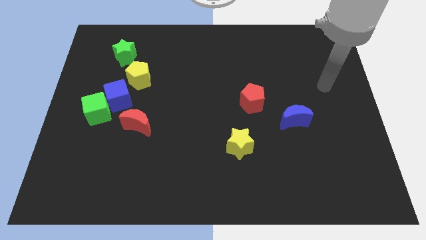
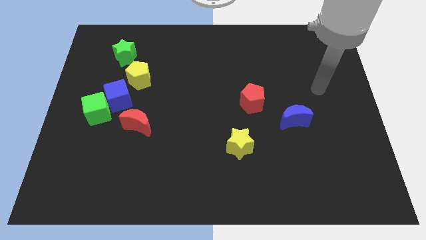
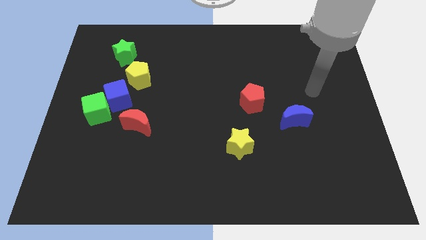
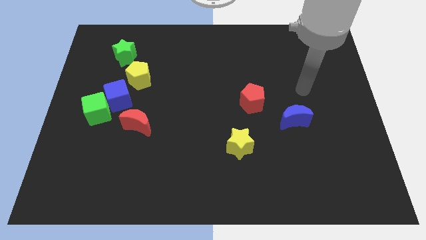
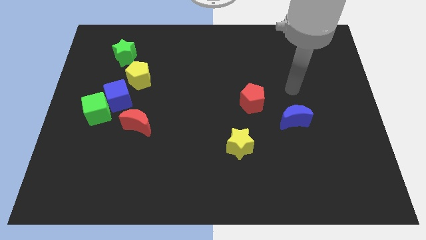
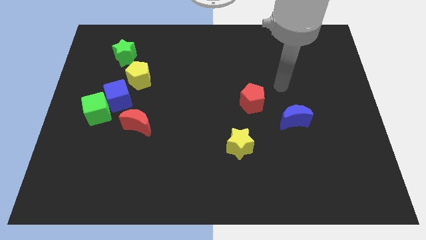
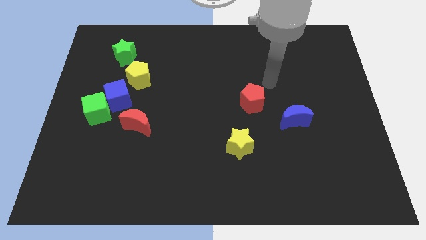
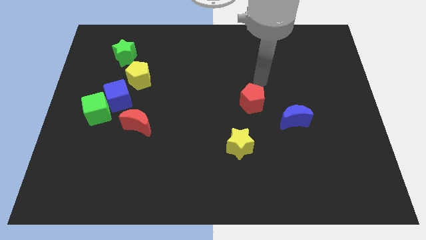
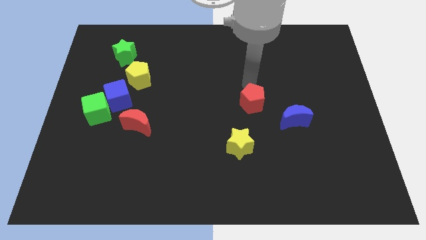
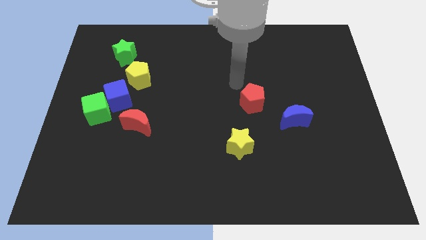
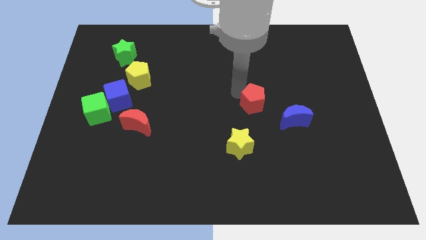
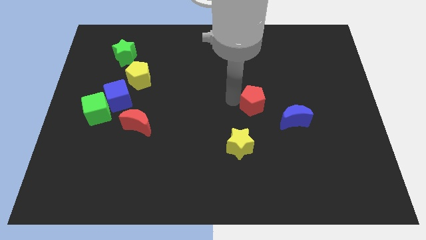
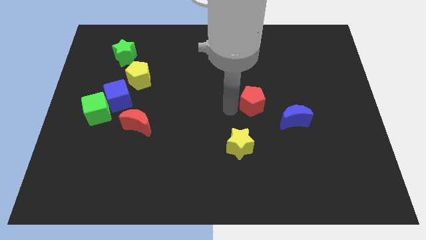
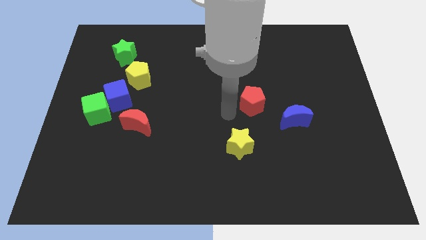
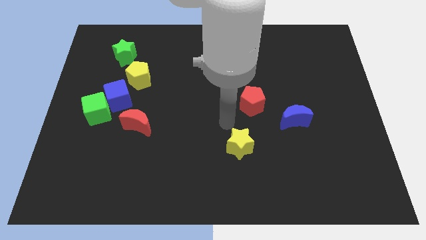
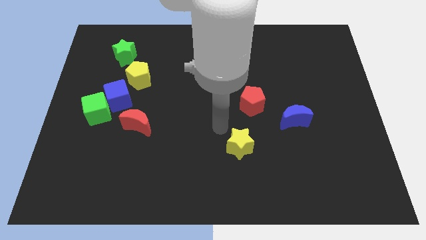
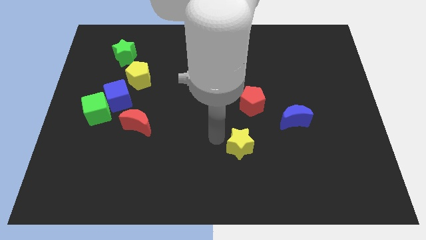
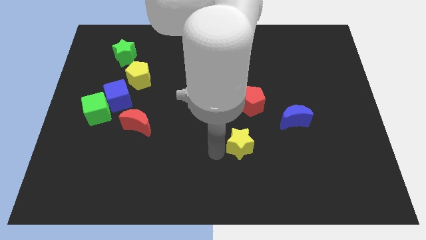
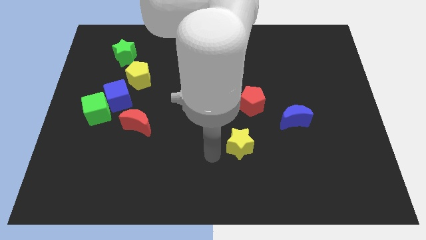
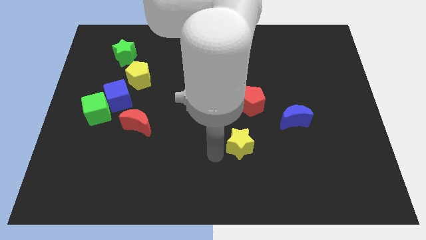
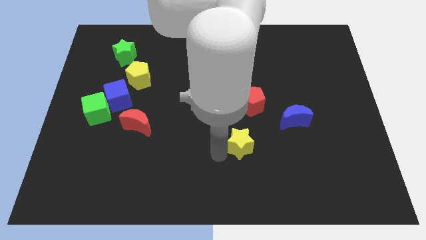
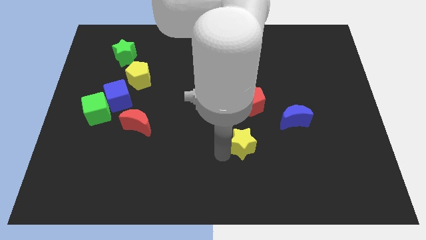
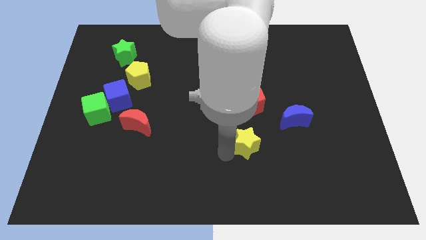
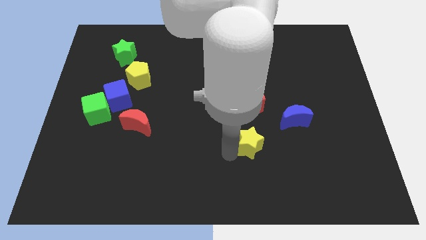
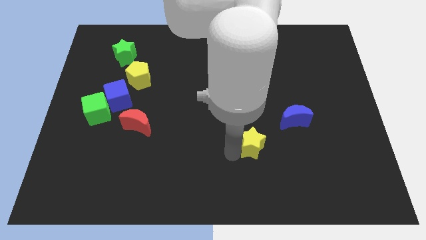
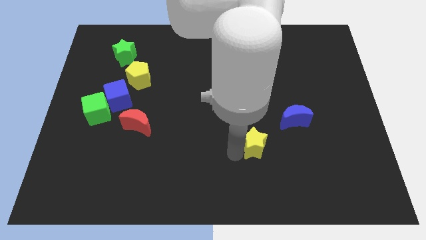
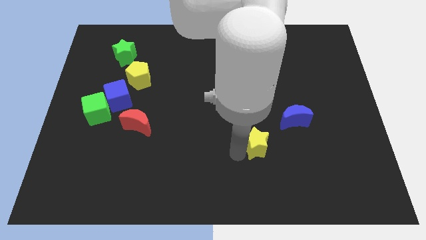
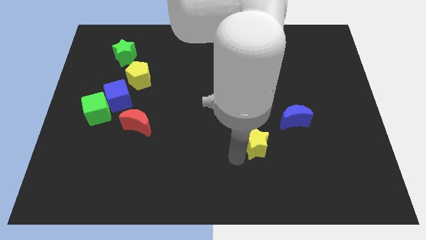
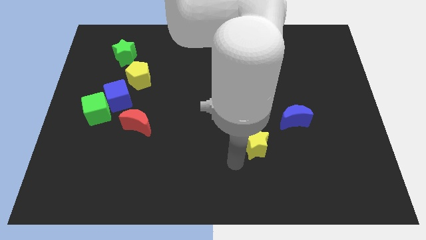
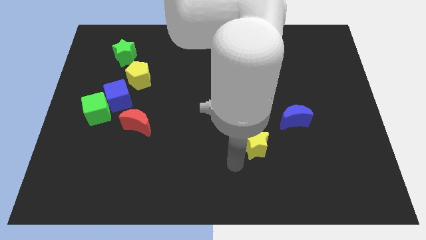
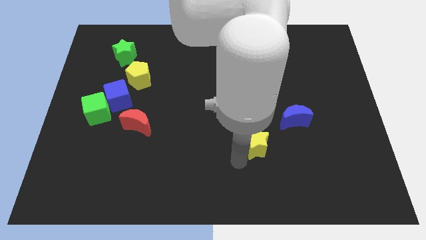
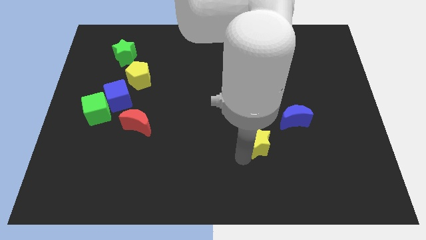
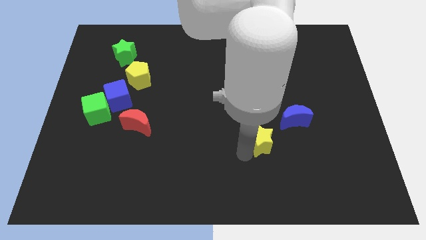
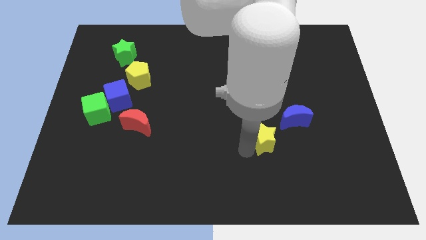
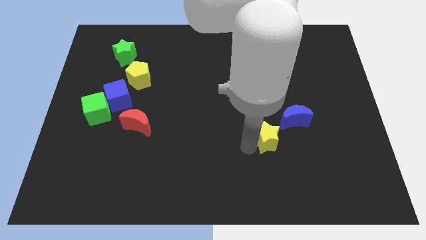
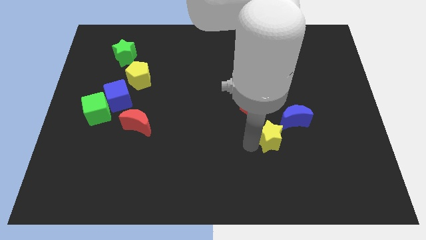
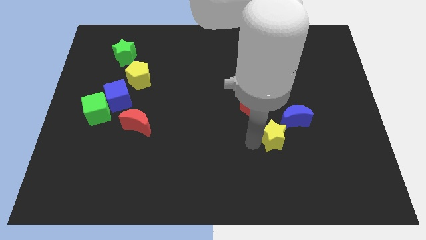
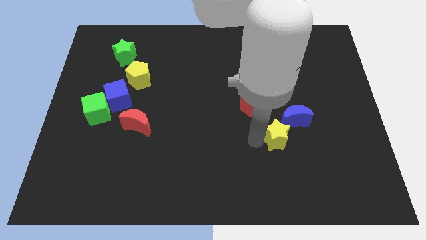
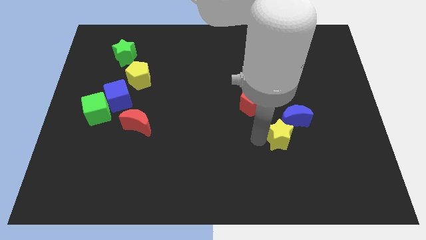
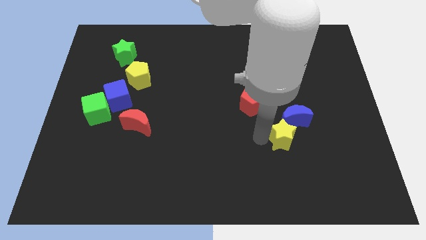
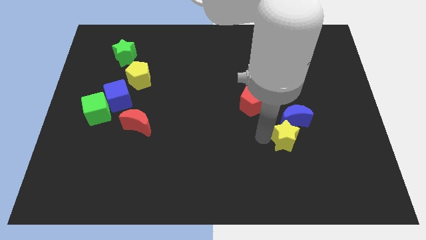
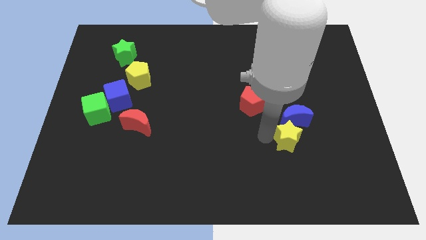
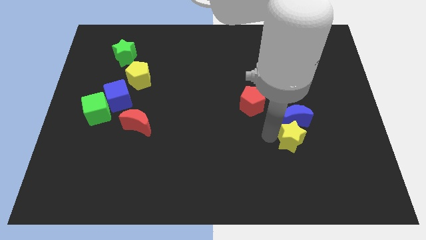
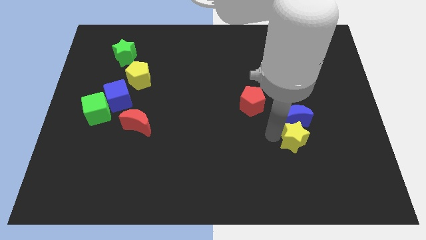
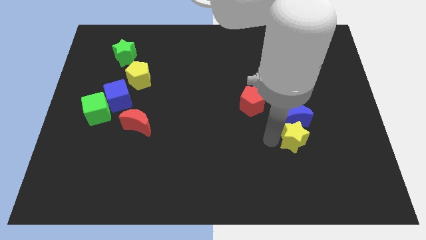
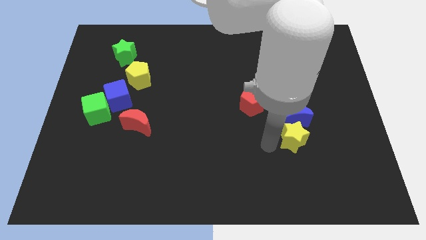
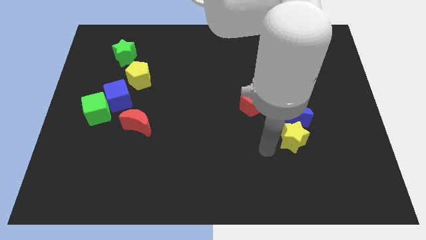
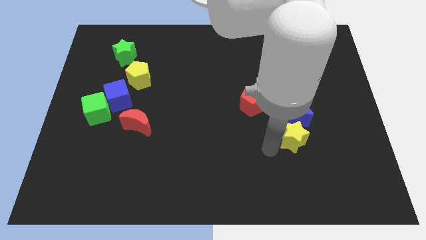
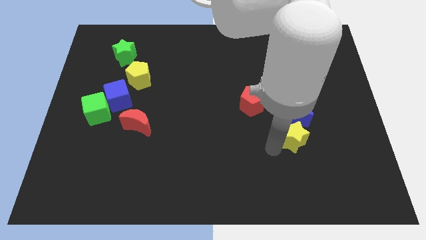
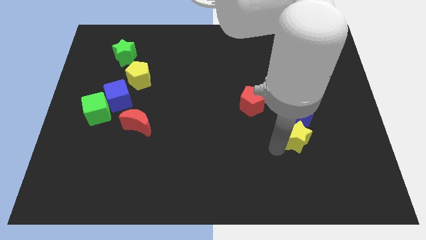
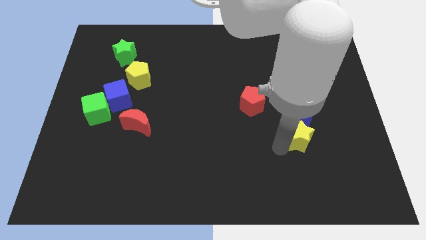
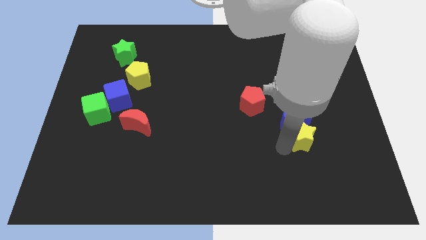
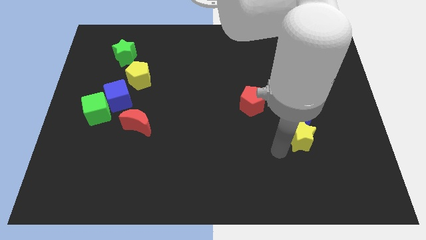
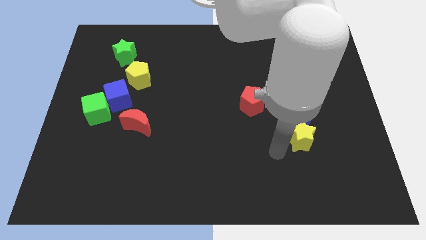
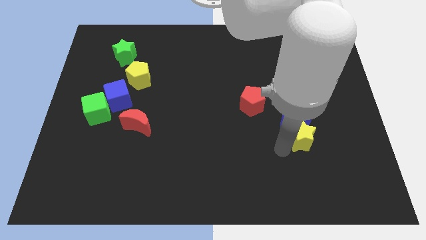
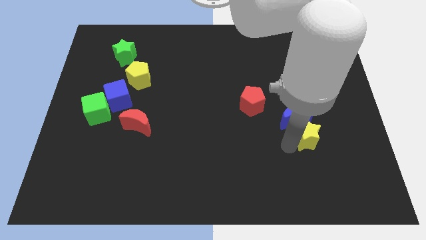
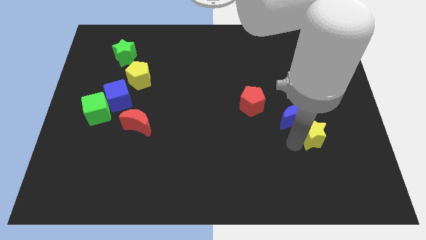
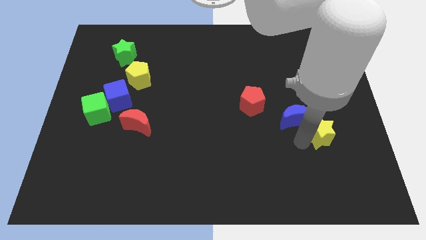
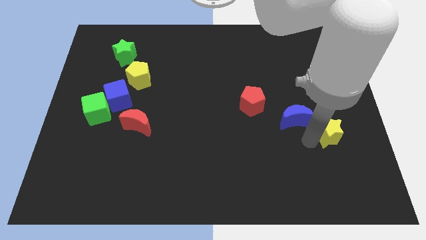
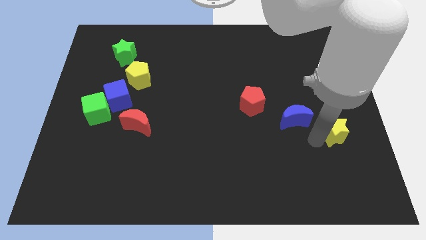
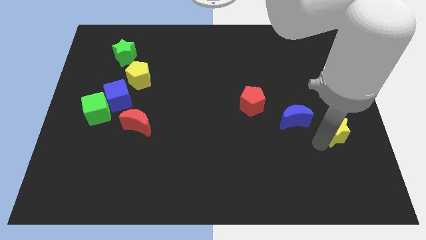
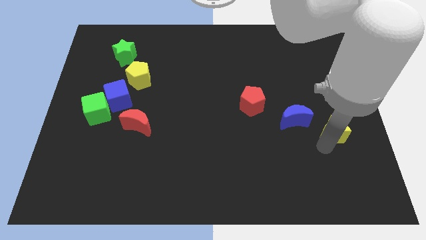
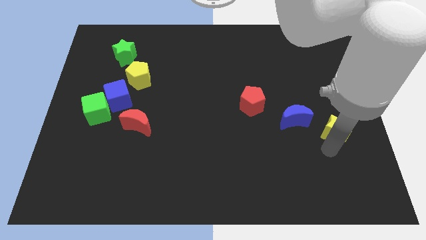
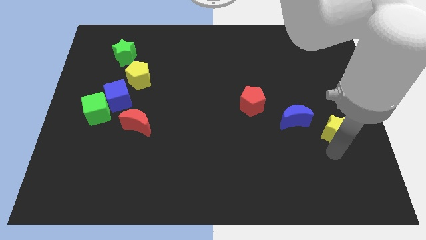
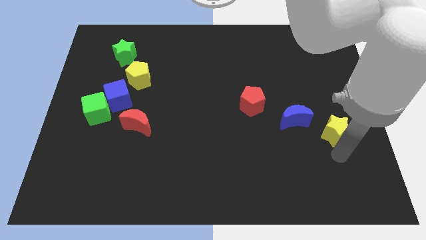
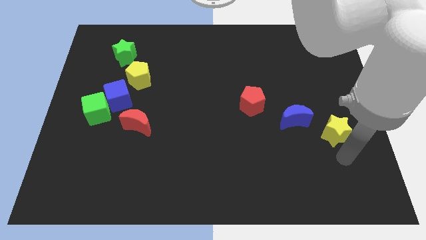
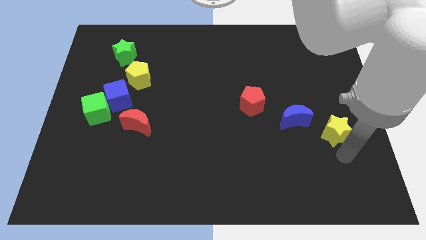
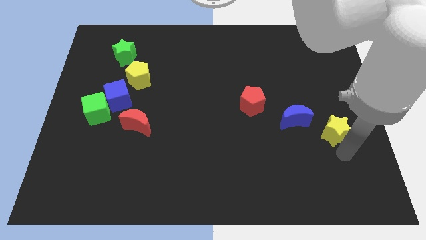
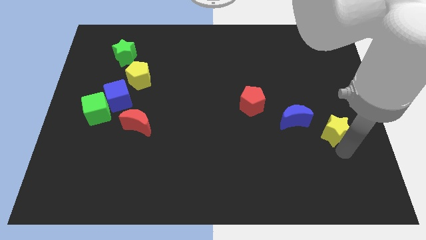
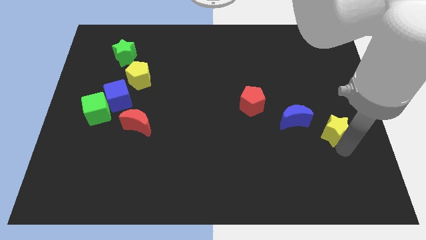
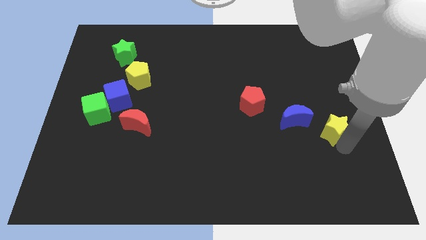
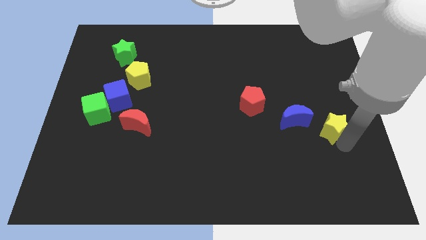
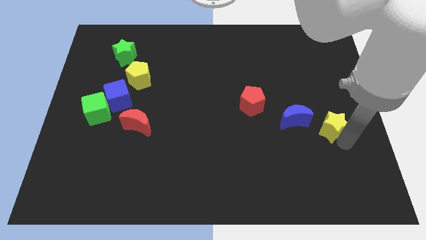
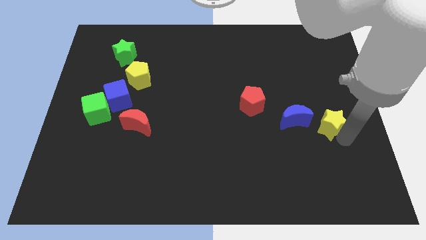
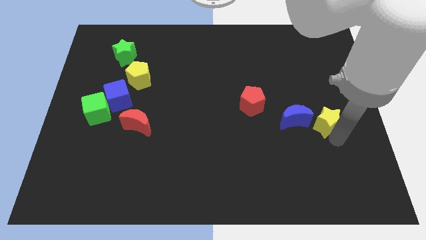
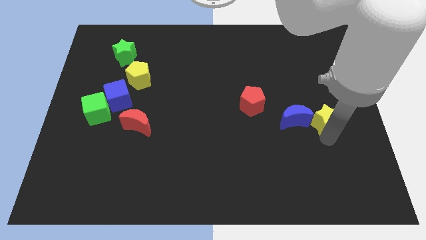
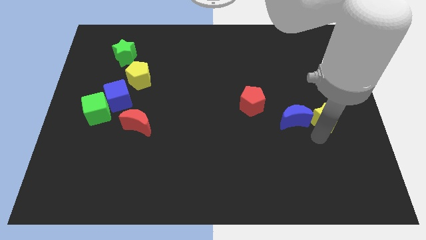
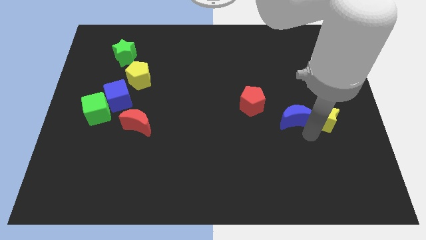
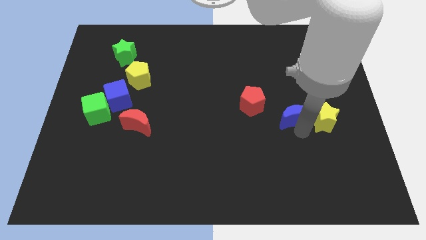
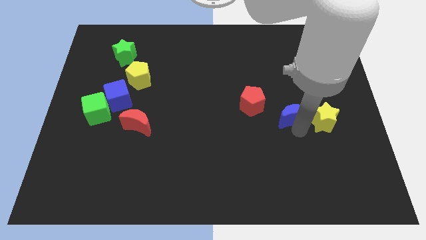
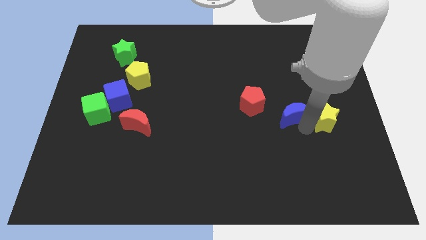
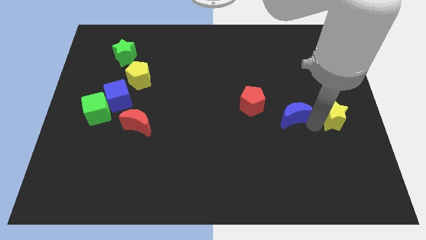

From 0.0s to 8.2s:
push the yellow star to the center right
